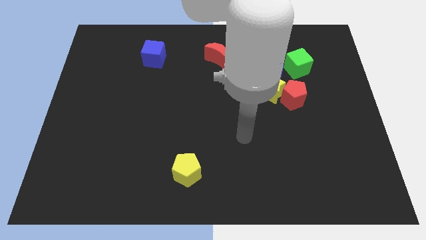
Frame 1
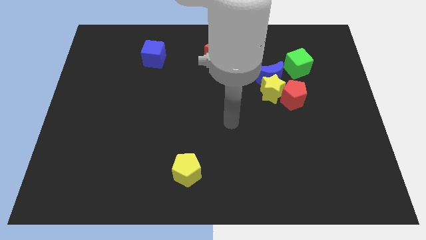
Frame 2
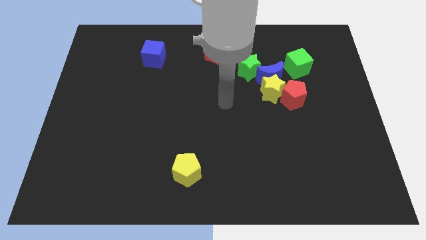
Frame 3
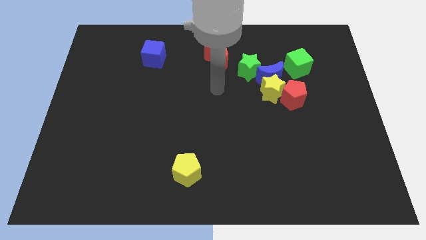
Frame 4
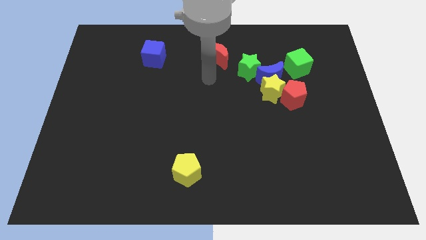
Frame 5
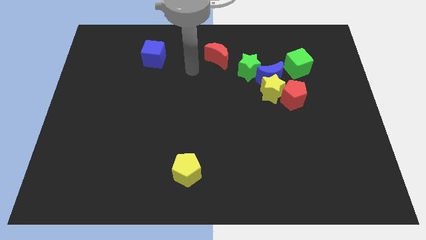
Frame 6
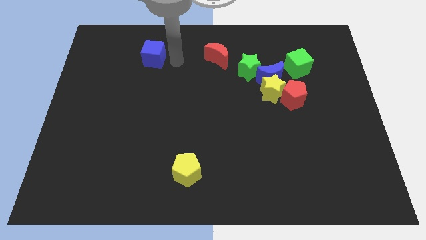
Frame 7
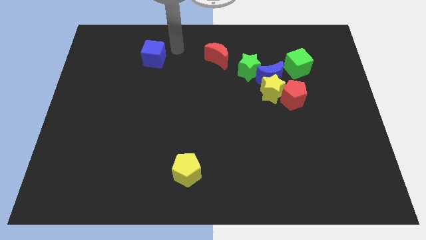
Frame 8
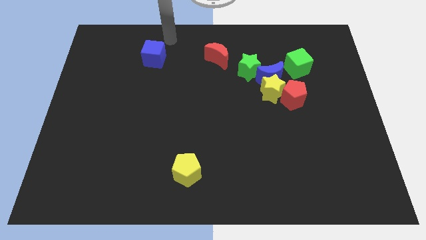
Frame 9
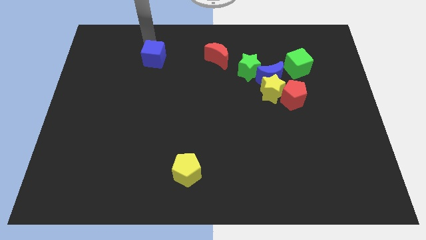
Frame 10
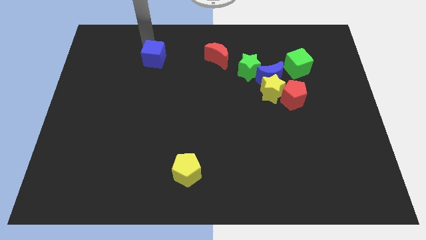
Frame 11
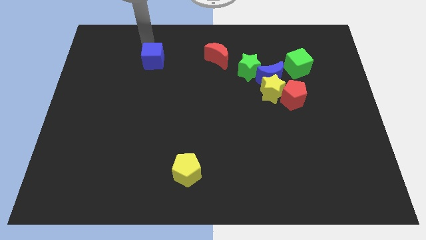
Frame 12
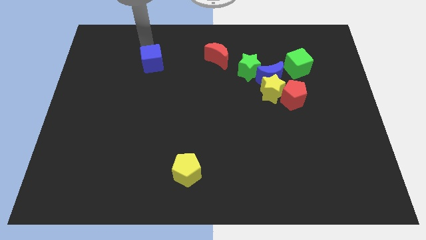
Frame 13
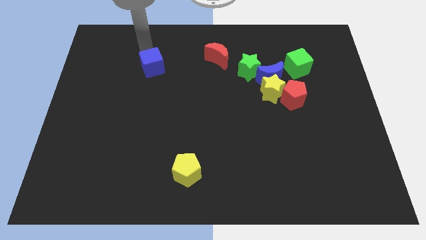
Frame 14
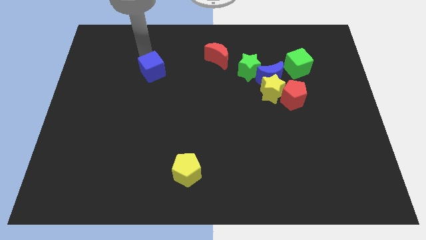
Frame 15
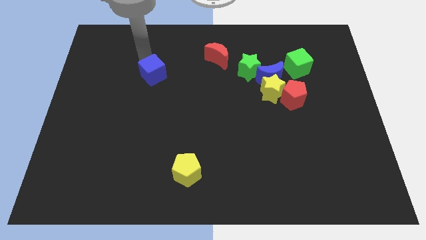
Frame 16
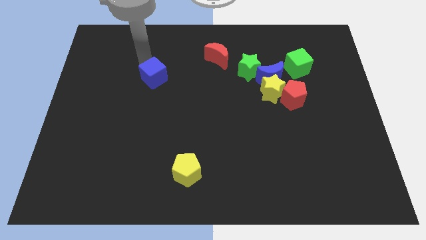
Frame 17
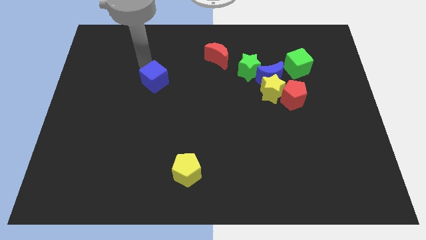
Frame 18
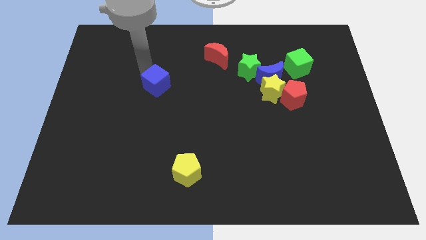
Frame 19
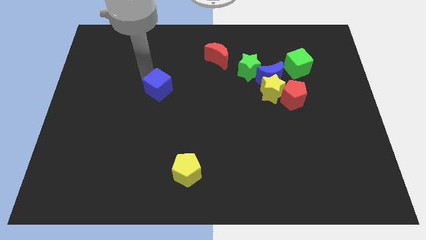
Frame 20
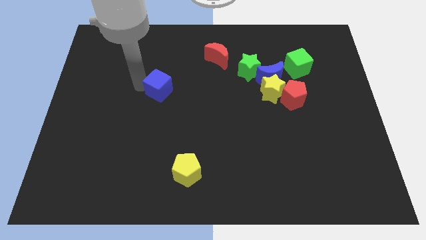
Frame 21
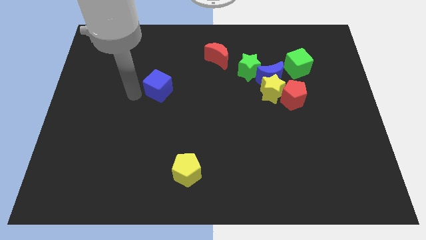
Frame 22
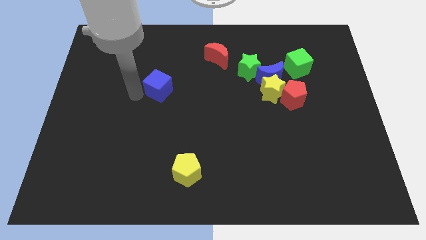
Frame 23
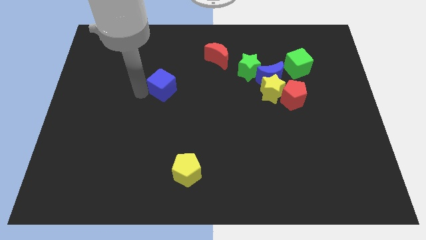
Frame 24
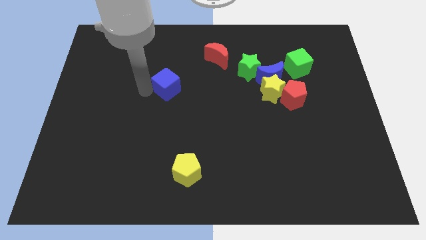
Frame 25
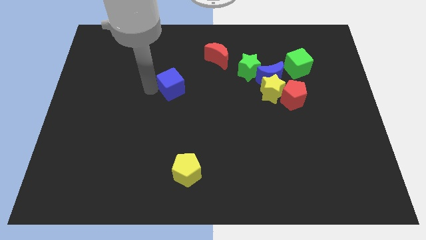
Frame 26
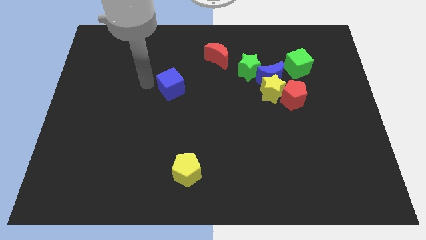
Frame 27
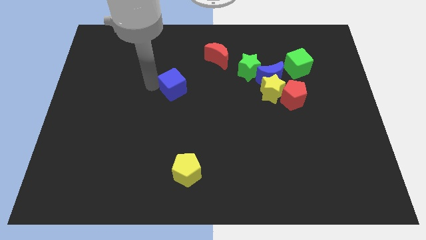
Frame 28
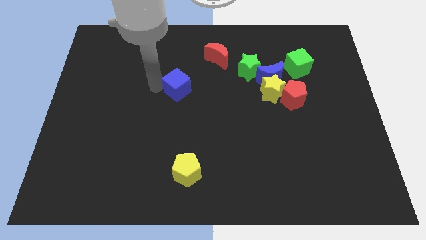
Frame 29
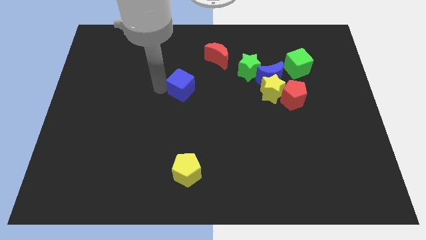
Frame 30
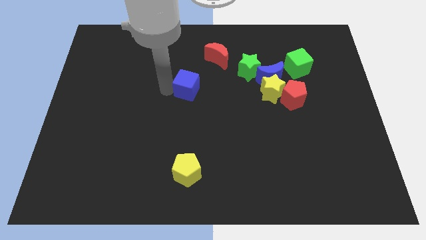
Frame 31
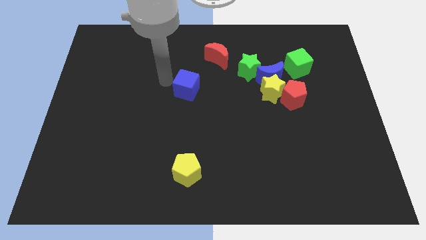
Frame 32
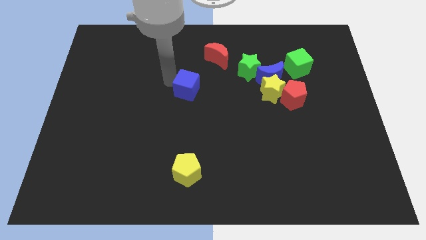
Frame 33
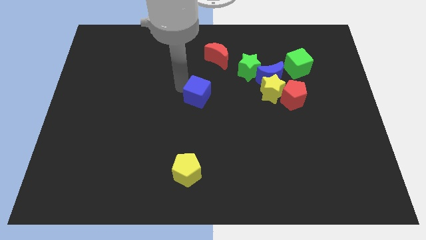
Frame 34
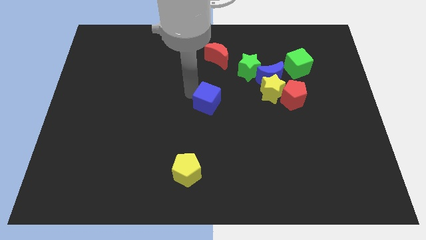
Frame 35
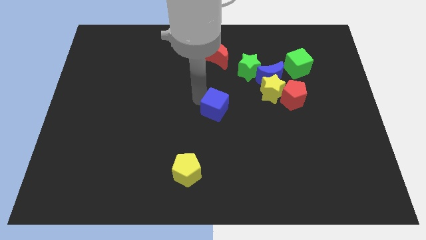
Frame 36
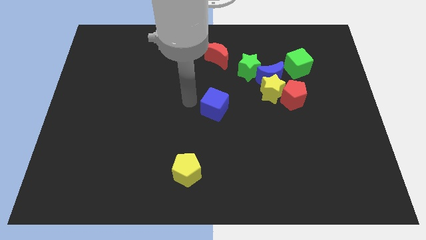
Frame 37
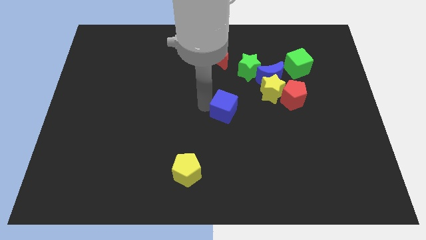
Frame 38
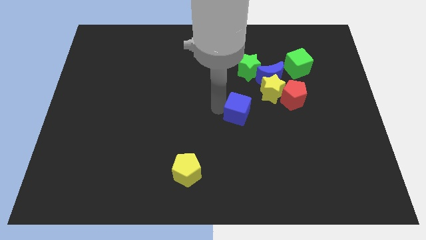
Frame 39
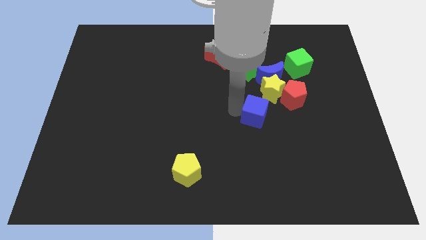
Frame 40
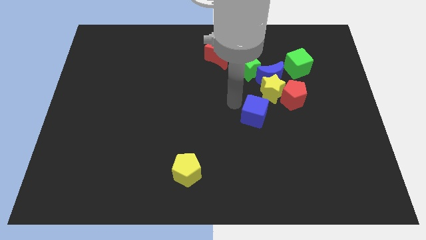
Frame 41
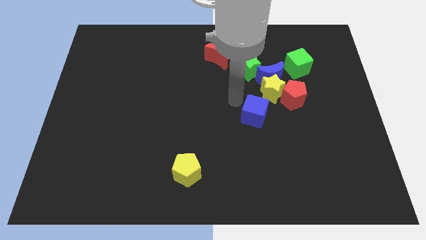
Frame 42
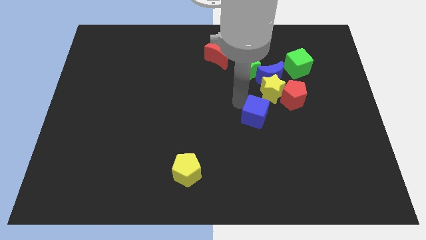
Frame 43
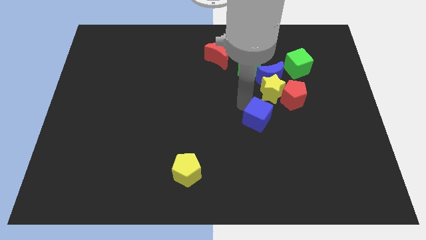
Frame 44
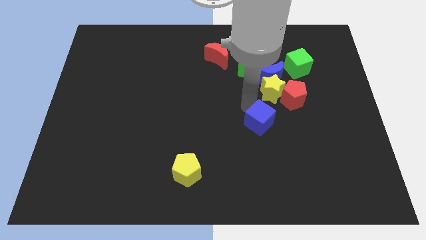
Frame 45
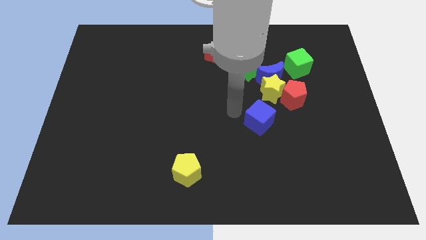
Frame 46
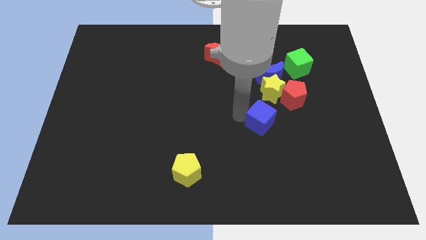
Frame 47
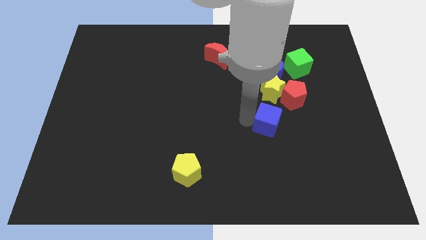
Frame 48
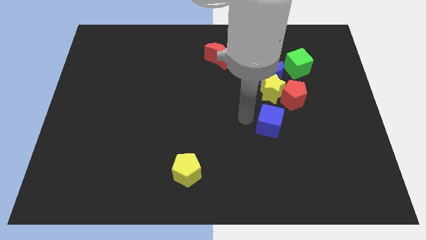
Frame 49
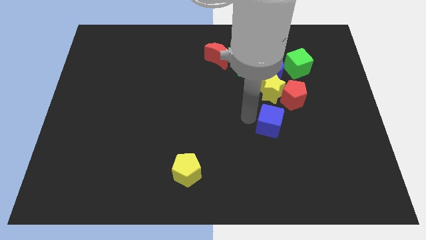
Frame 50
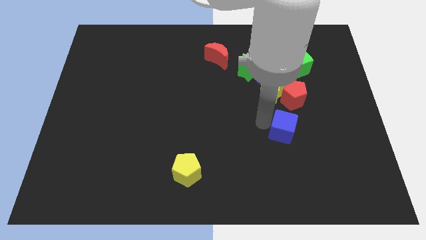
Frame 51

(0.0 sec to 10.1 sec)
slide the blue cube to the bottom of the red pentagon

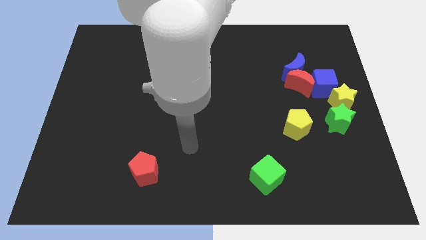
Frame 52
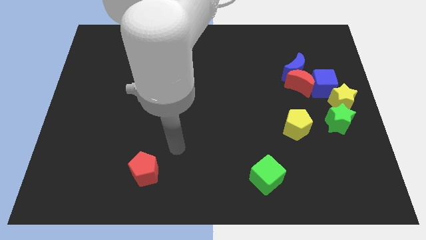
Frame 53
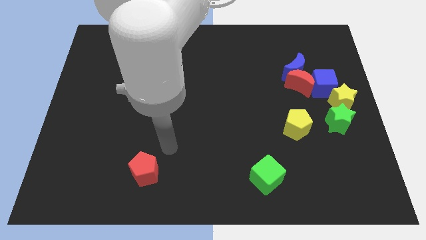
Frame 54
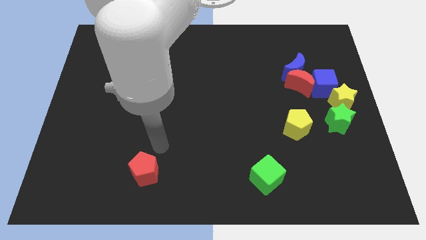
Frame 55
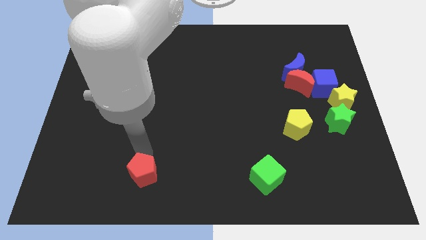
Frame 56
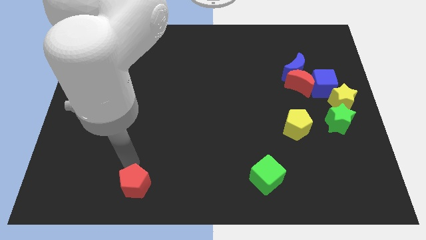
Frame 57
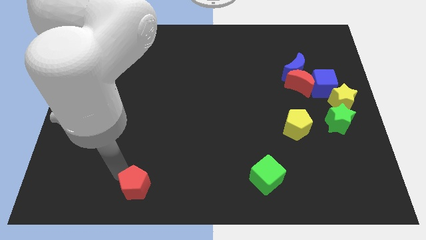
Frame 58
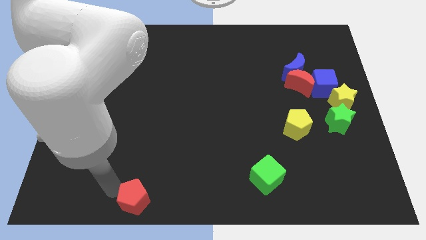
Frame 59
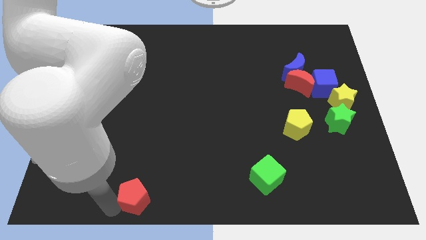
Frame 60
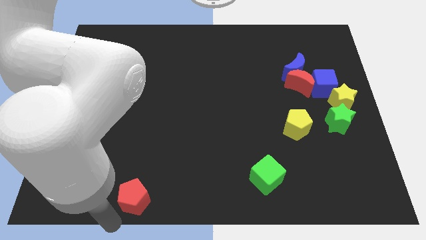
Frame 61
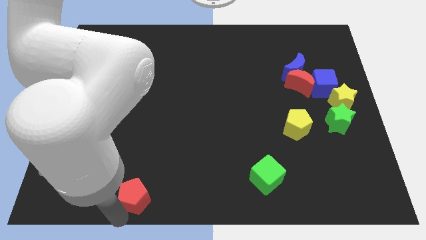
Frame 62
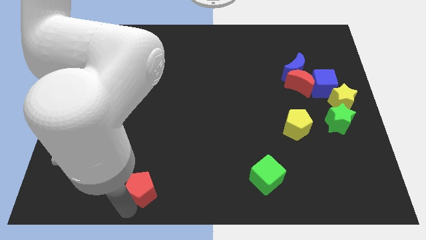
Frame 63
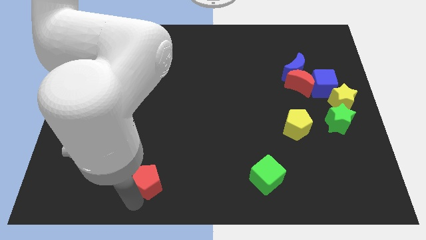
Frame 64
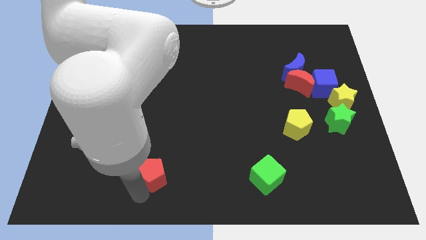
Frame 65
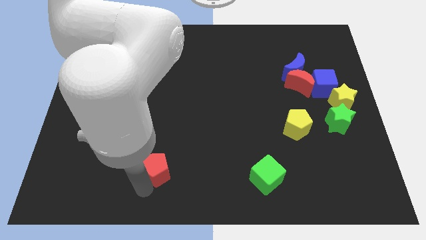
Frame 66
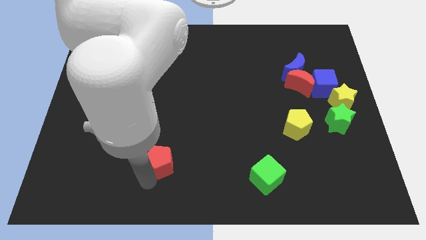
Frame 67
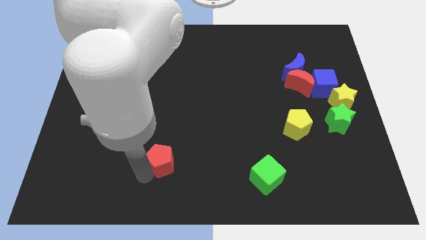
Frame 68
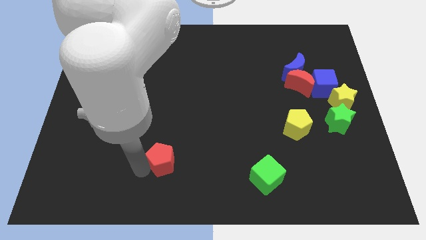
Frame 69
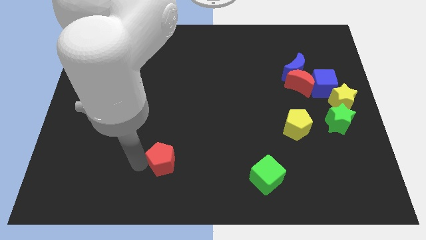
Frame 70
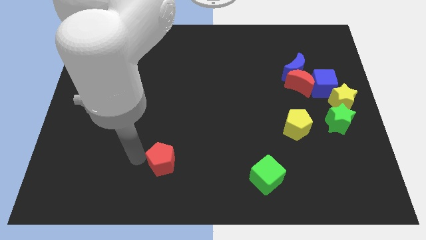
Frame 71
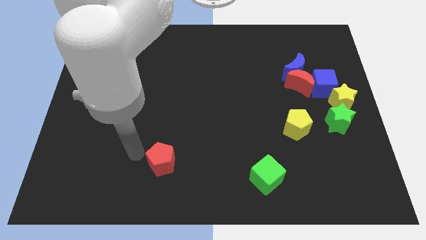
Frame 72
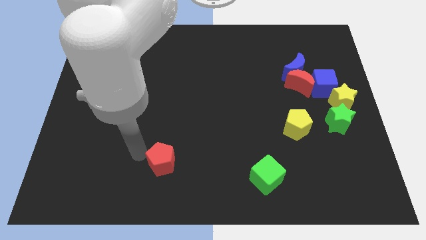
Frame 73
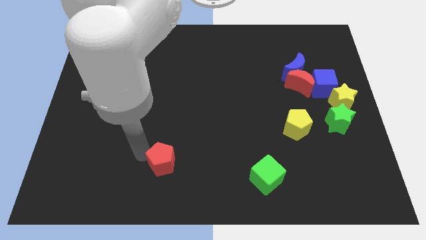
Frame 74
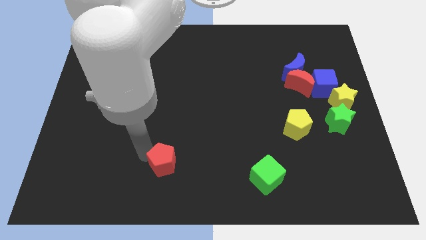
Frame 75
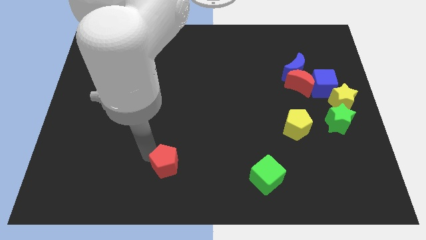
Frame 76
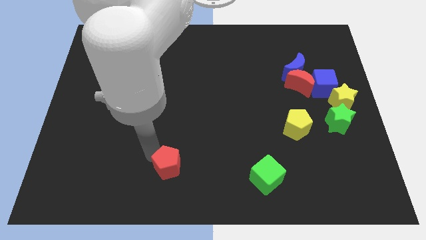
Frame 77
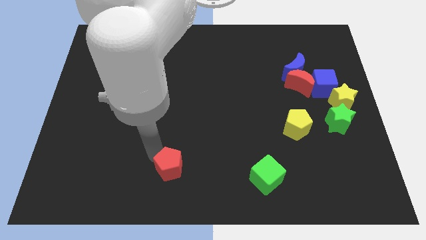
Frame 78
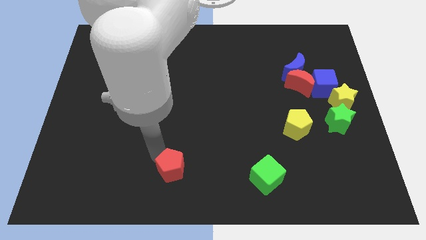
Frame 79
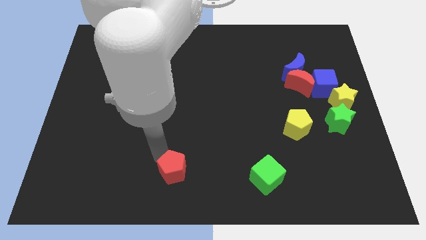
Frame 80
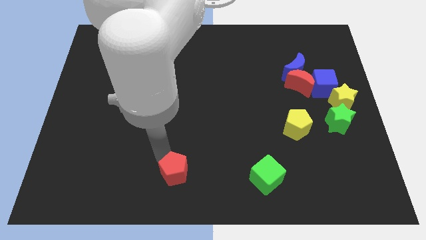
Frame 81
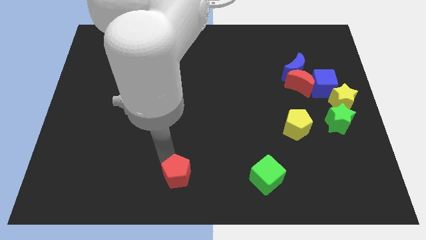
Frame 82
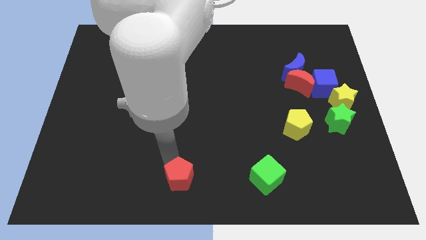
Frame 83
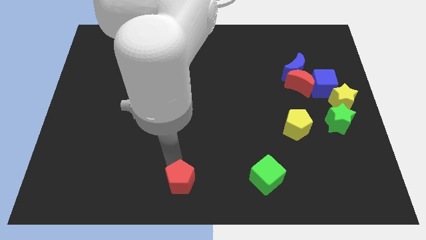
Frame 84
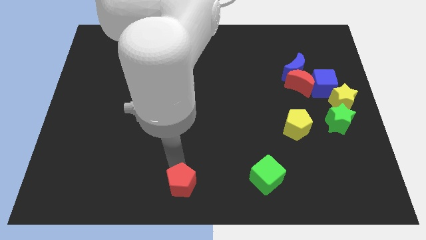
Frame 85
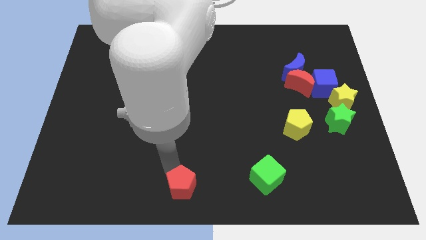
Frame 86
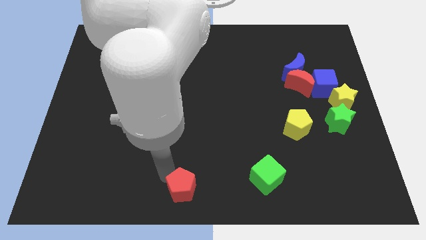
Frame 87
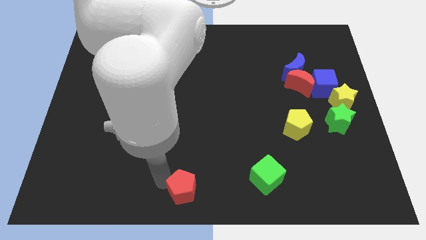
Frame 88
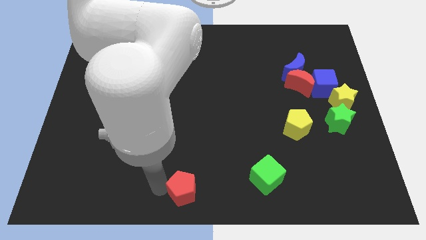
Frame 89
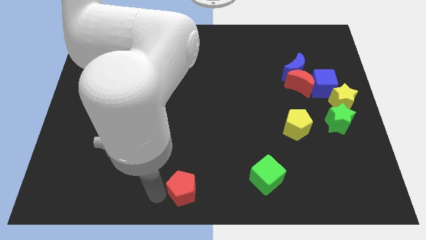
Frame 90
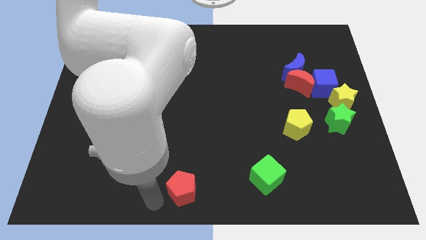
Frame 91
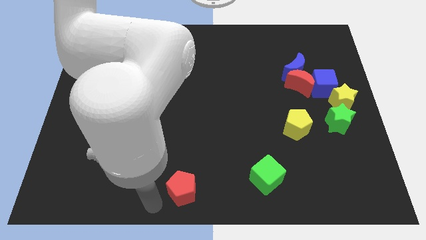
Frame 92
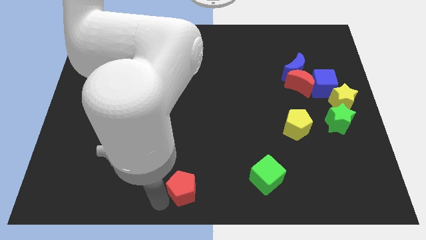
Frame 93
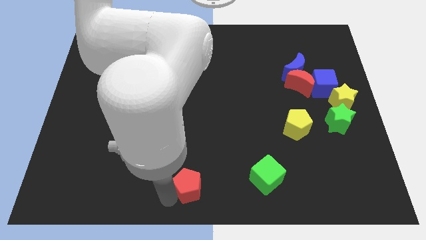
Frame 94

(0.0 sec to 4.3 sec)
put the red pentagon left of the green cube
